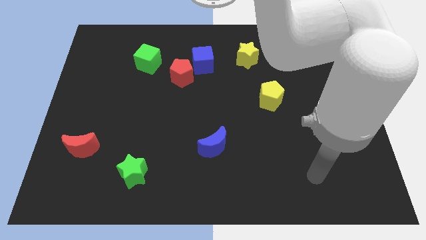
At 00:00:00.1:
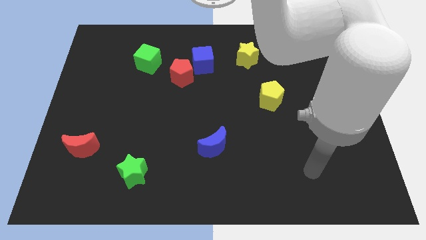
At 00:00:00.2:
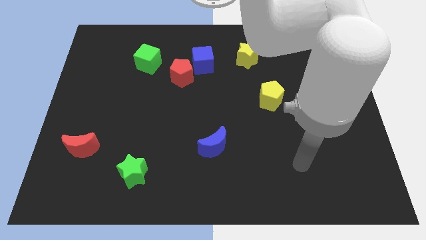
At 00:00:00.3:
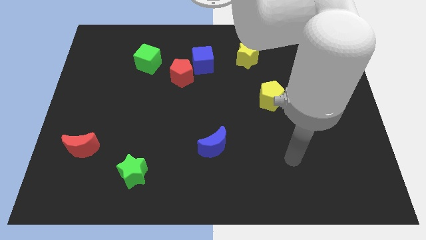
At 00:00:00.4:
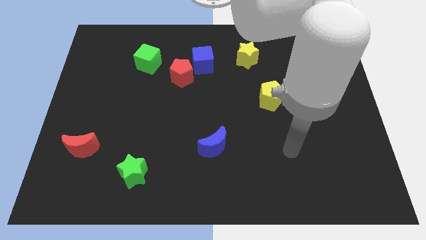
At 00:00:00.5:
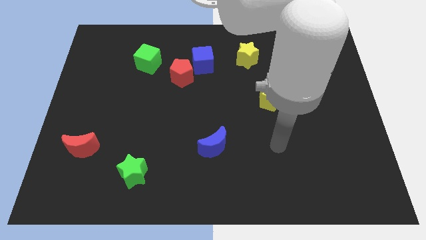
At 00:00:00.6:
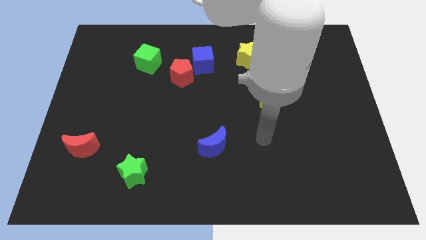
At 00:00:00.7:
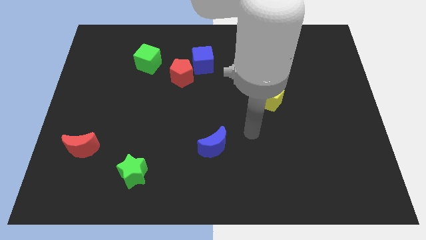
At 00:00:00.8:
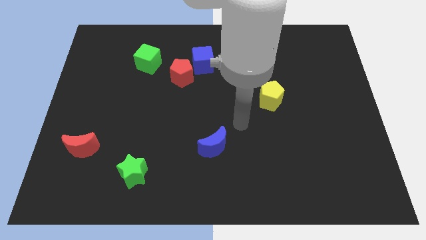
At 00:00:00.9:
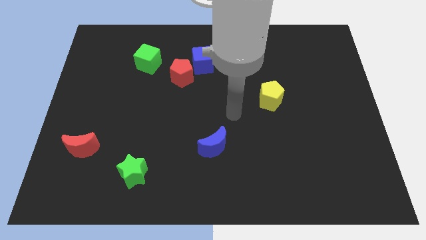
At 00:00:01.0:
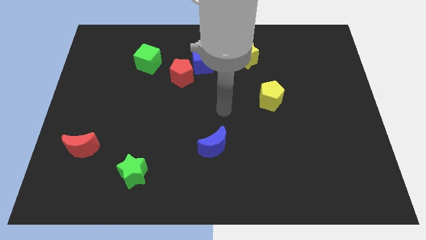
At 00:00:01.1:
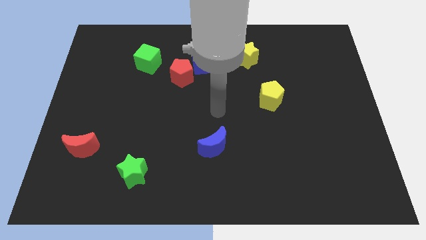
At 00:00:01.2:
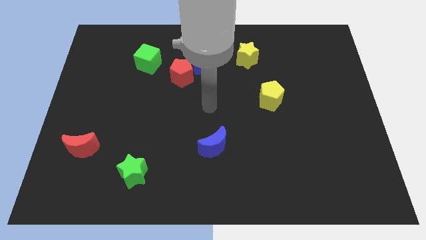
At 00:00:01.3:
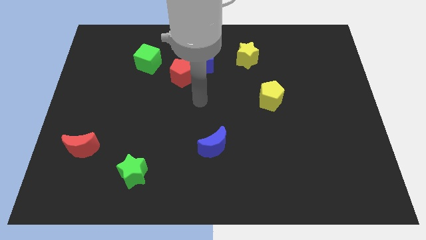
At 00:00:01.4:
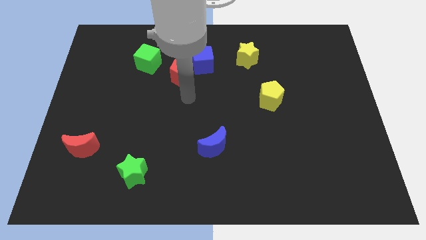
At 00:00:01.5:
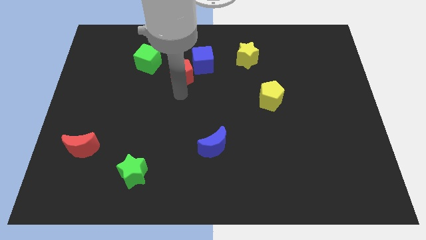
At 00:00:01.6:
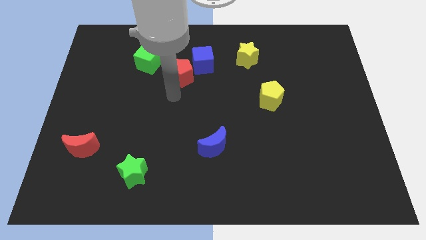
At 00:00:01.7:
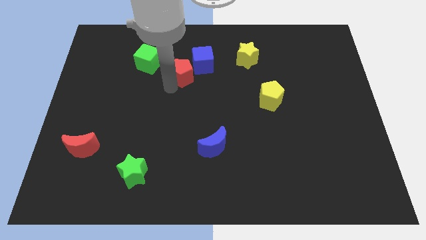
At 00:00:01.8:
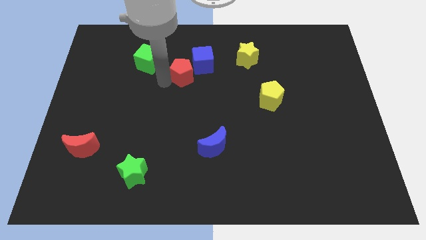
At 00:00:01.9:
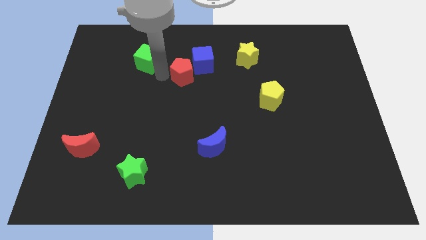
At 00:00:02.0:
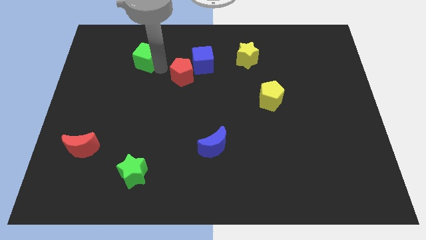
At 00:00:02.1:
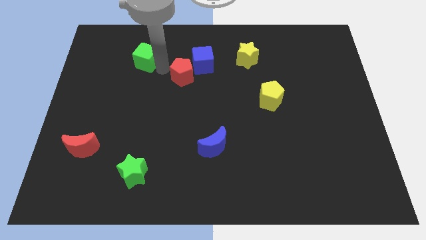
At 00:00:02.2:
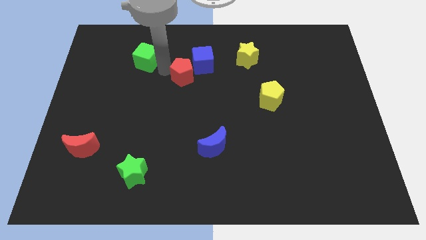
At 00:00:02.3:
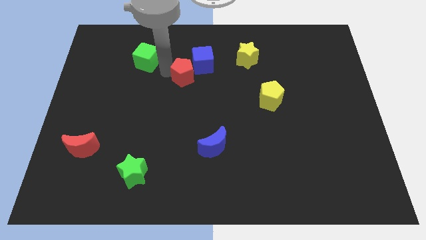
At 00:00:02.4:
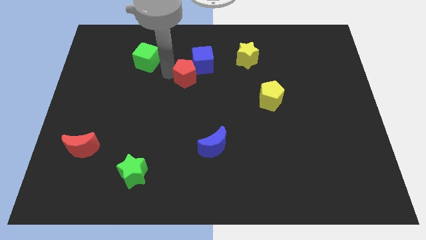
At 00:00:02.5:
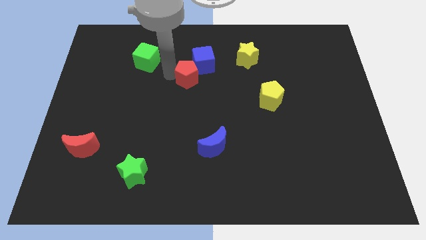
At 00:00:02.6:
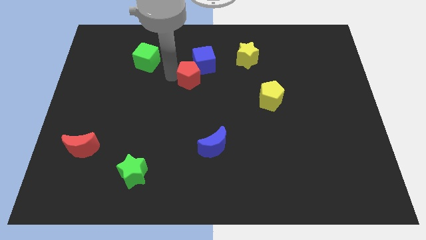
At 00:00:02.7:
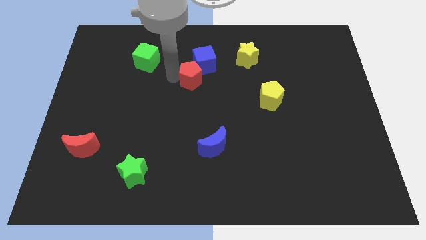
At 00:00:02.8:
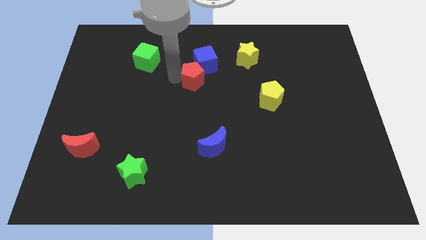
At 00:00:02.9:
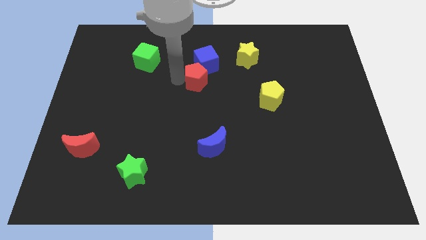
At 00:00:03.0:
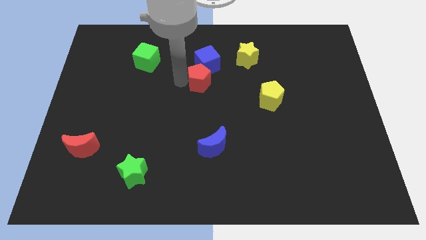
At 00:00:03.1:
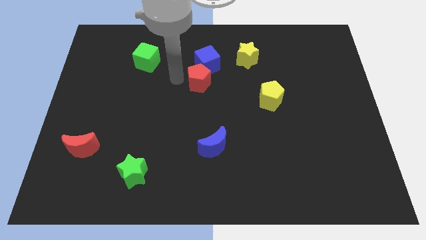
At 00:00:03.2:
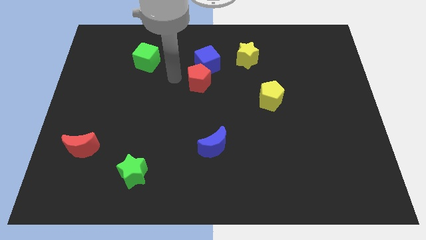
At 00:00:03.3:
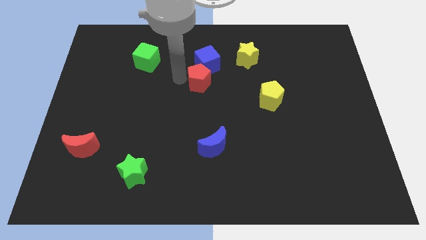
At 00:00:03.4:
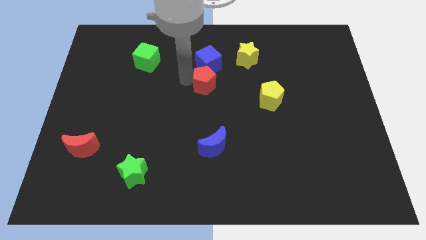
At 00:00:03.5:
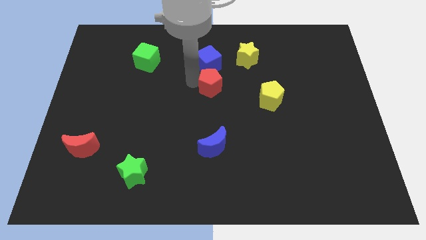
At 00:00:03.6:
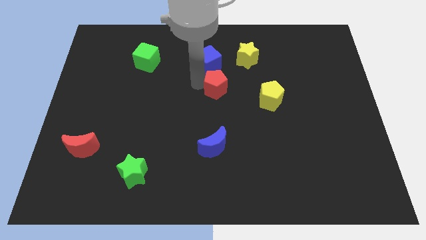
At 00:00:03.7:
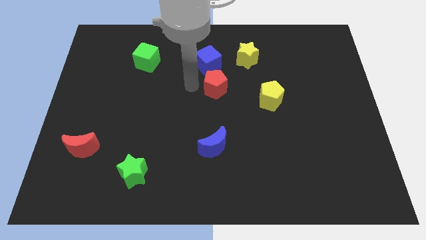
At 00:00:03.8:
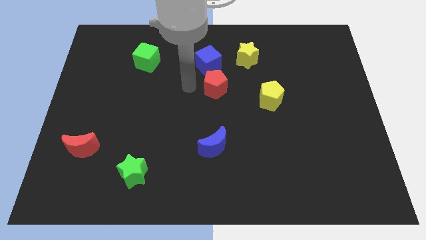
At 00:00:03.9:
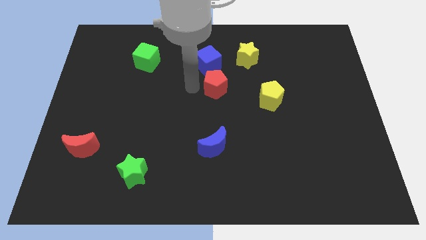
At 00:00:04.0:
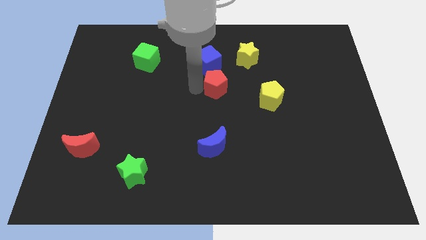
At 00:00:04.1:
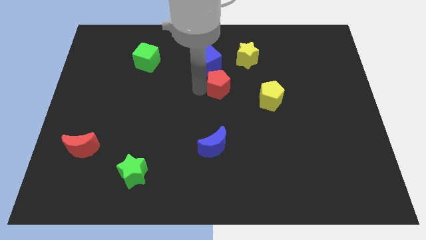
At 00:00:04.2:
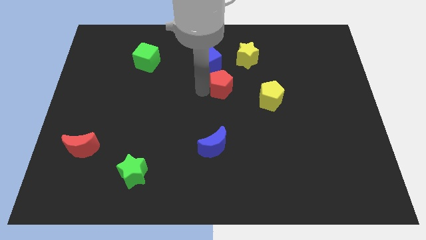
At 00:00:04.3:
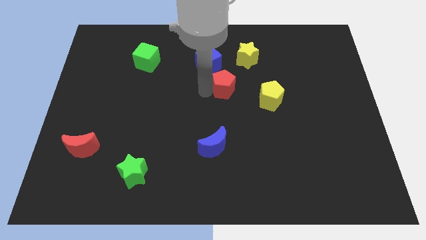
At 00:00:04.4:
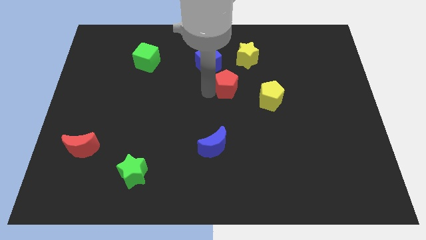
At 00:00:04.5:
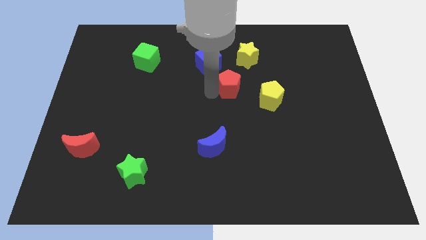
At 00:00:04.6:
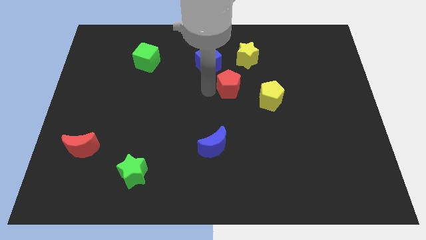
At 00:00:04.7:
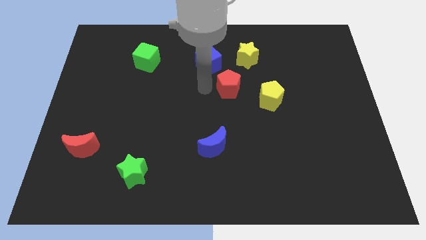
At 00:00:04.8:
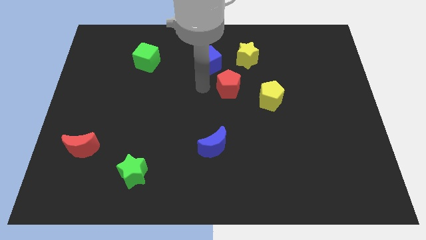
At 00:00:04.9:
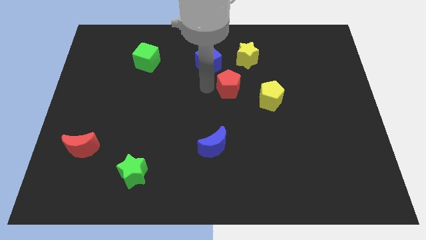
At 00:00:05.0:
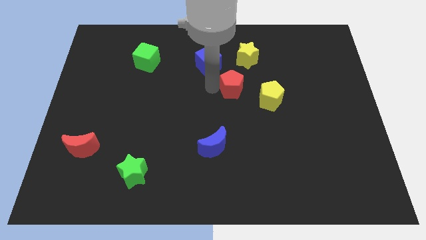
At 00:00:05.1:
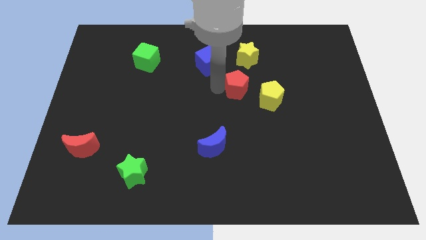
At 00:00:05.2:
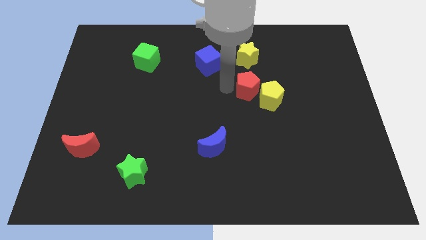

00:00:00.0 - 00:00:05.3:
push the red pentagon towards the yellow pentagon
